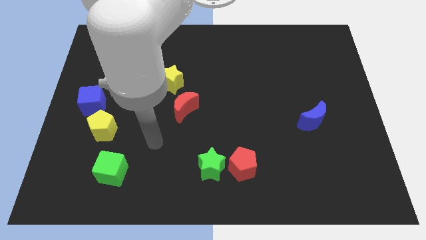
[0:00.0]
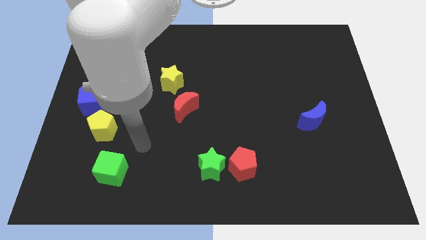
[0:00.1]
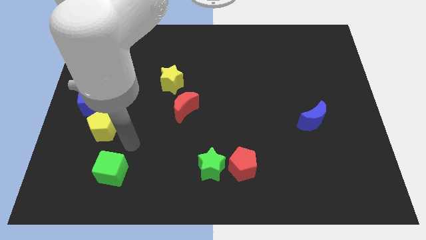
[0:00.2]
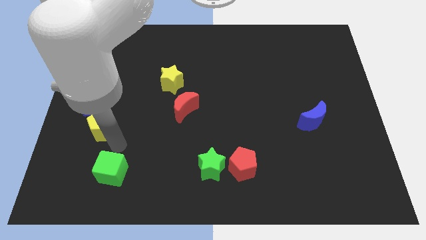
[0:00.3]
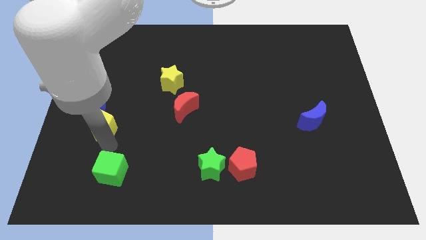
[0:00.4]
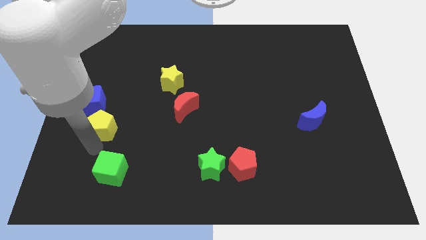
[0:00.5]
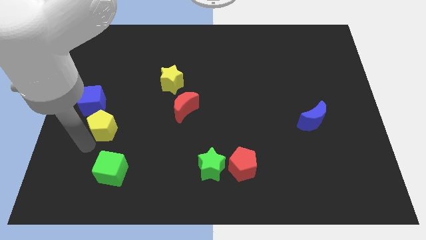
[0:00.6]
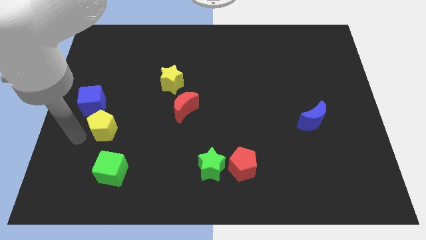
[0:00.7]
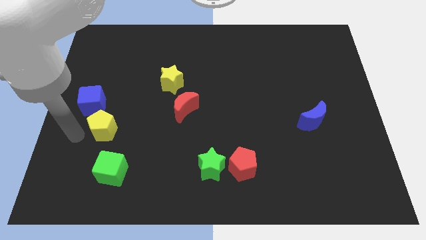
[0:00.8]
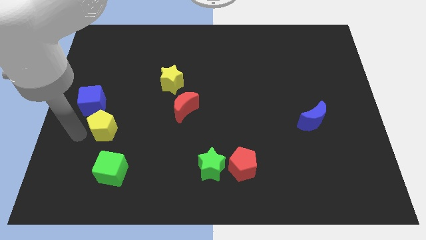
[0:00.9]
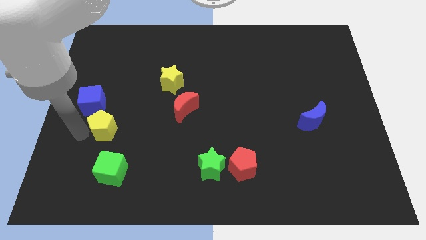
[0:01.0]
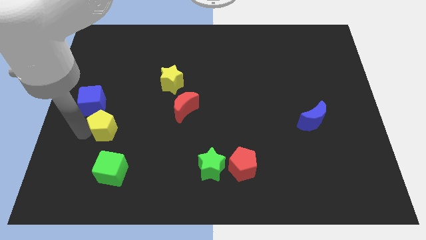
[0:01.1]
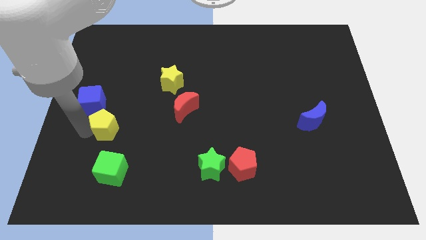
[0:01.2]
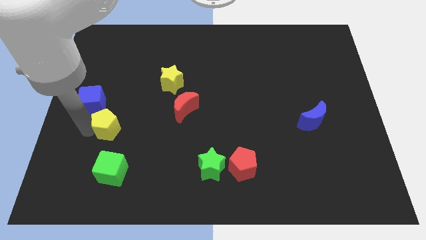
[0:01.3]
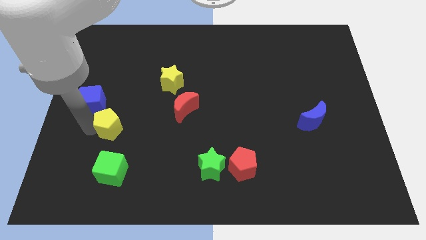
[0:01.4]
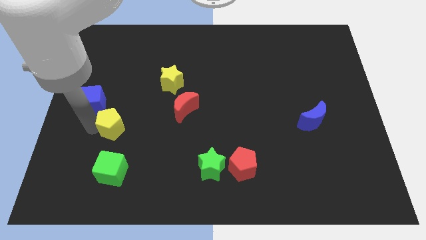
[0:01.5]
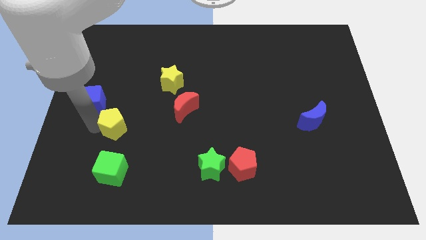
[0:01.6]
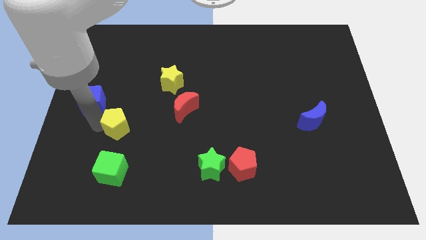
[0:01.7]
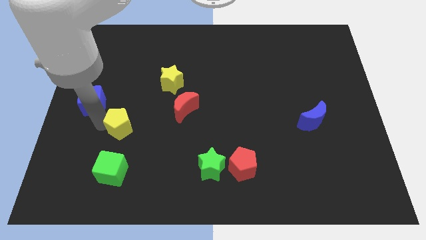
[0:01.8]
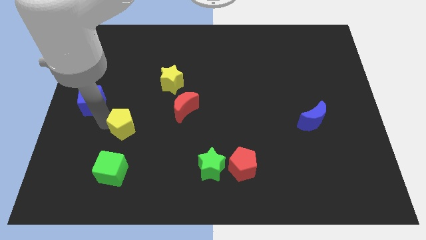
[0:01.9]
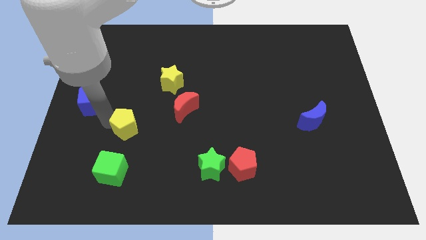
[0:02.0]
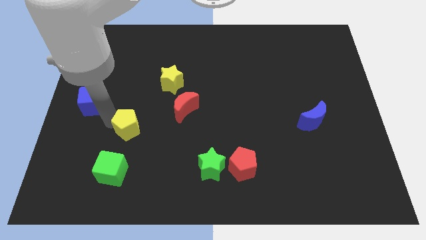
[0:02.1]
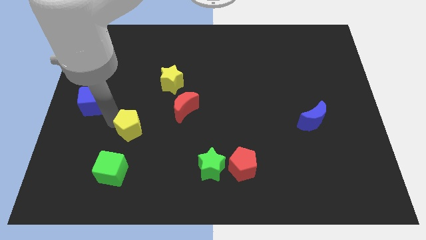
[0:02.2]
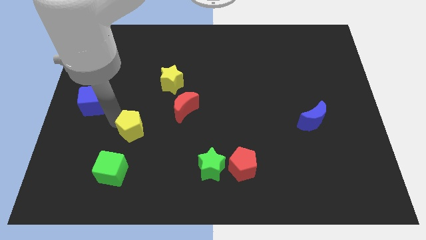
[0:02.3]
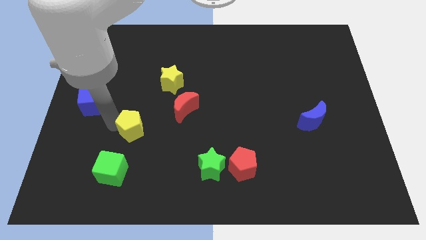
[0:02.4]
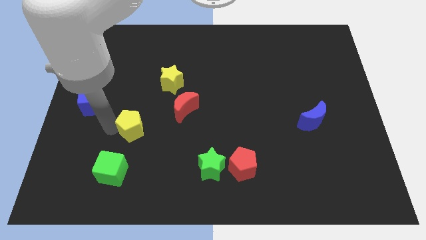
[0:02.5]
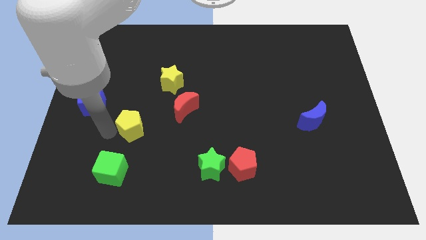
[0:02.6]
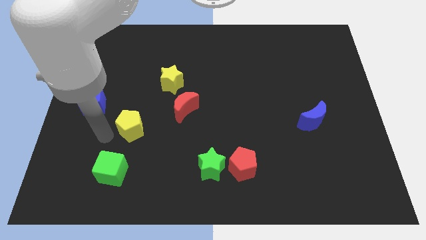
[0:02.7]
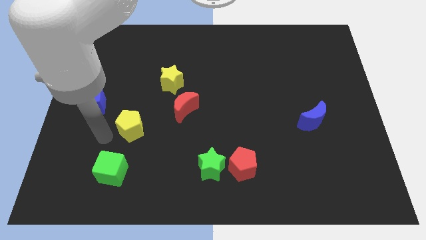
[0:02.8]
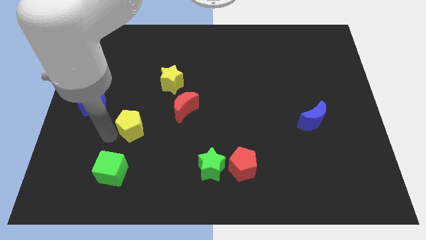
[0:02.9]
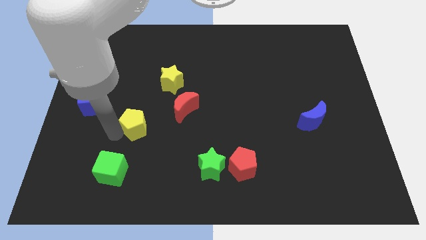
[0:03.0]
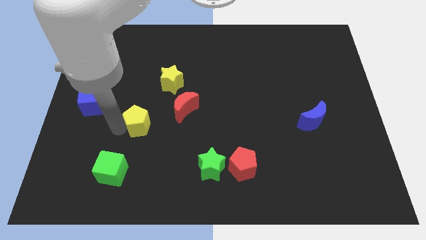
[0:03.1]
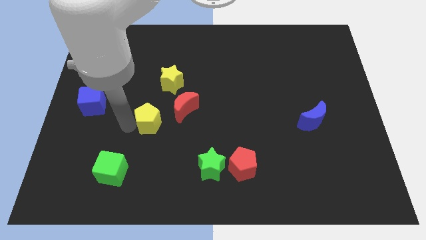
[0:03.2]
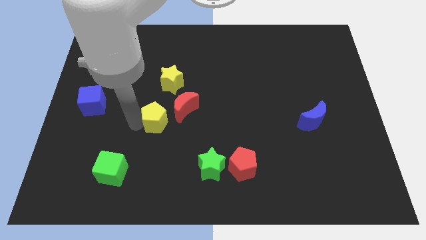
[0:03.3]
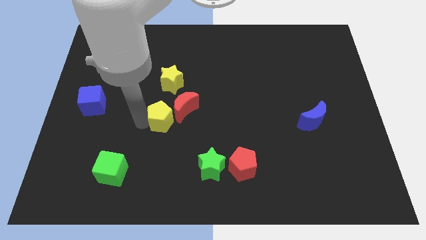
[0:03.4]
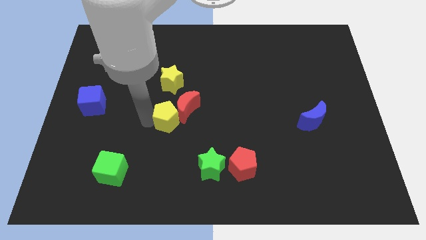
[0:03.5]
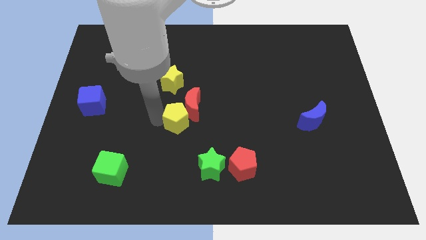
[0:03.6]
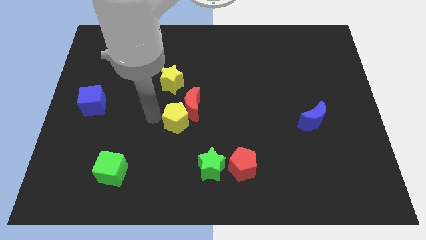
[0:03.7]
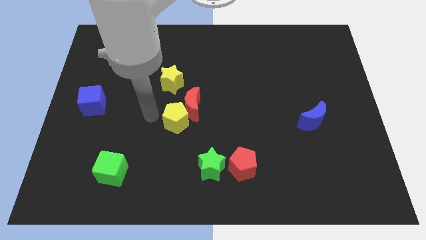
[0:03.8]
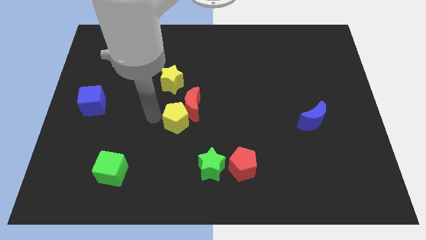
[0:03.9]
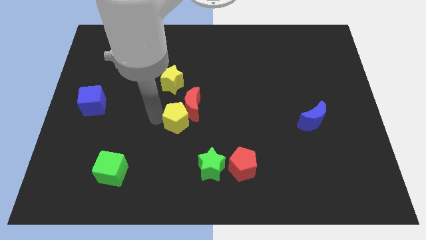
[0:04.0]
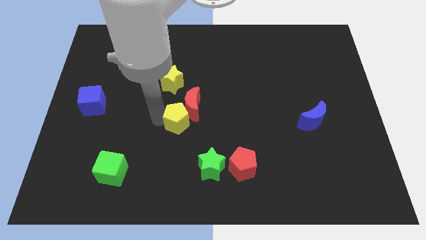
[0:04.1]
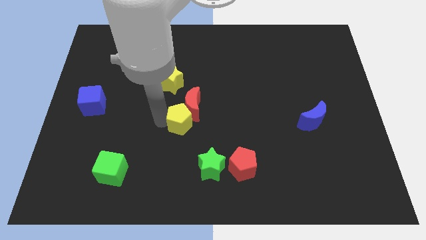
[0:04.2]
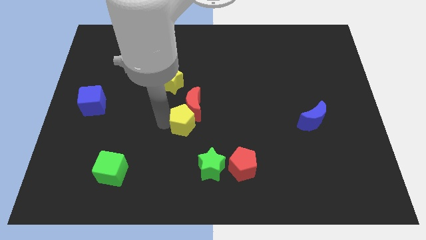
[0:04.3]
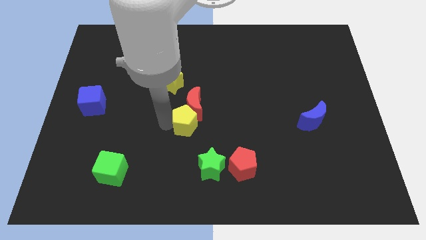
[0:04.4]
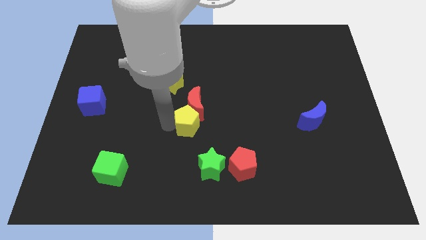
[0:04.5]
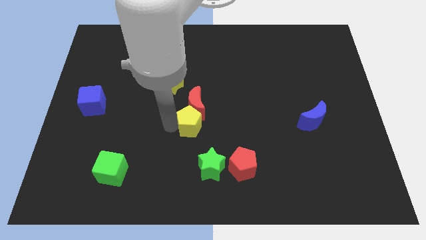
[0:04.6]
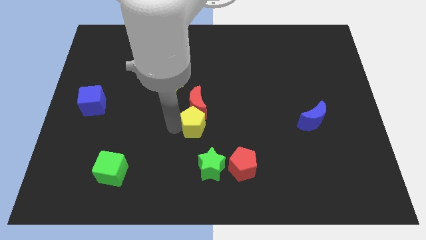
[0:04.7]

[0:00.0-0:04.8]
move the yellow pentagon to the right

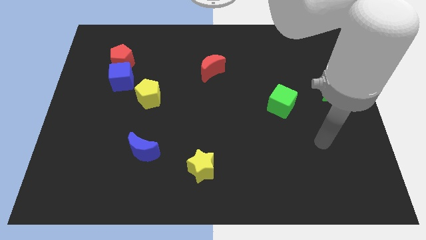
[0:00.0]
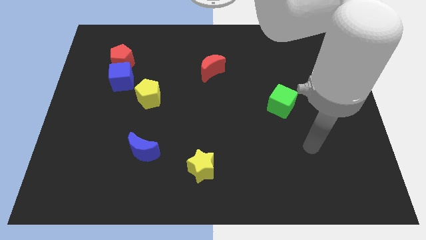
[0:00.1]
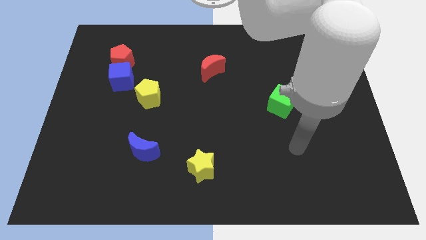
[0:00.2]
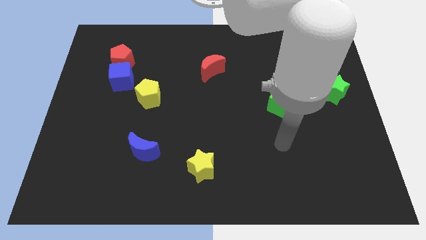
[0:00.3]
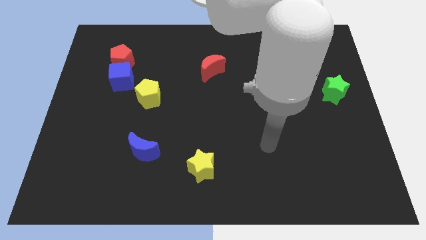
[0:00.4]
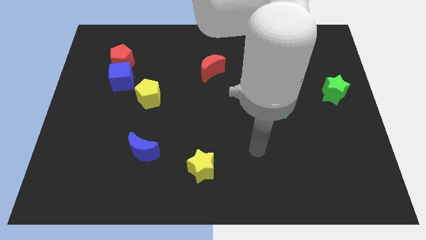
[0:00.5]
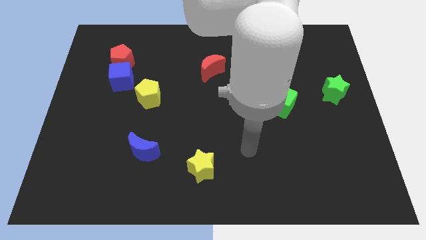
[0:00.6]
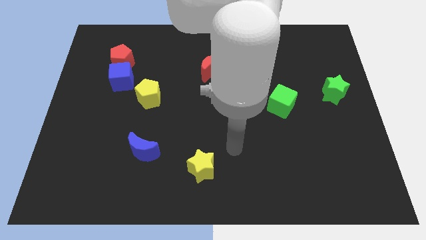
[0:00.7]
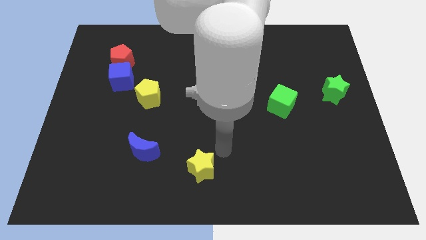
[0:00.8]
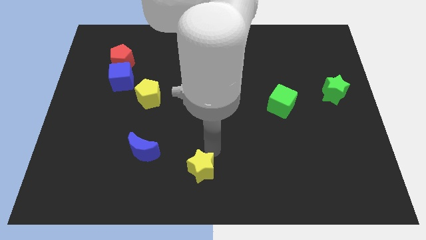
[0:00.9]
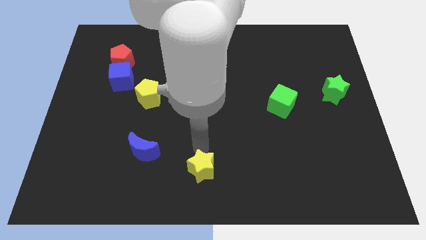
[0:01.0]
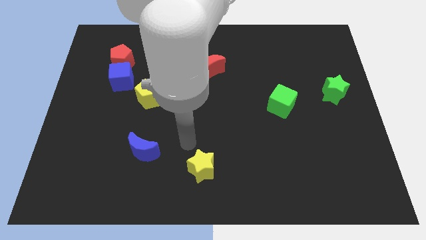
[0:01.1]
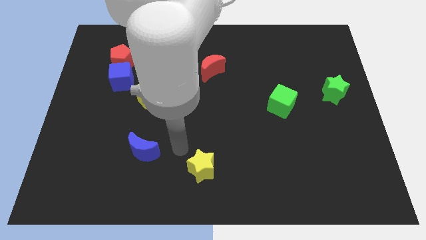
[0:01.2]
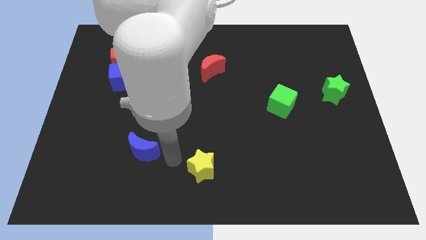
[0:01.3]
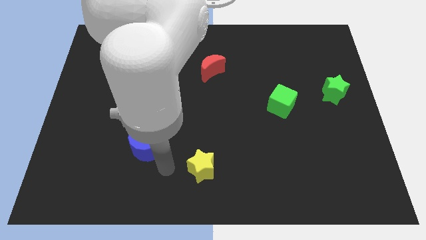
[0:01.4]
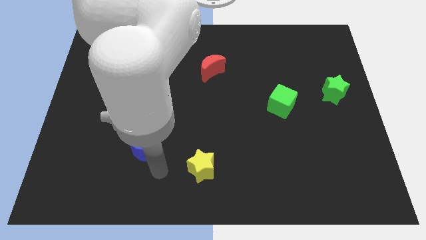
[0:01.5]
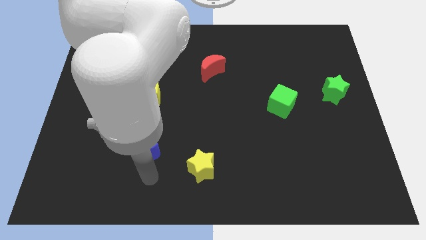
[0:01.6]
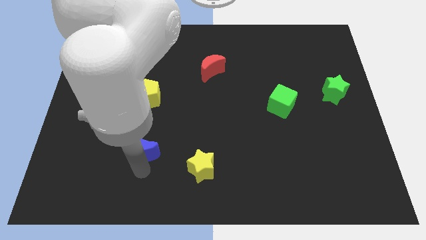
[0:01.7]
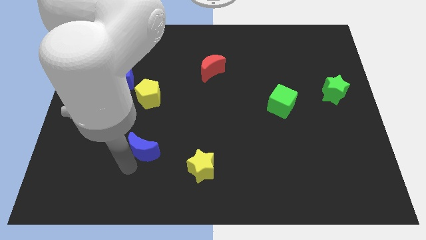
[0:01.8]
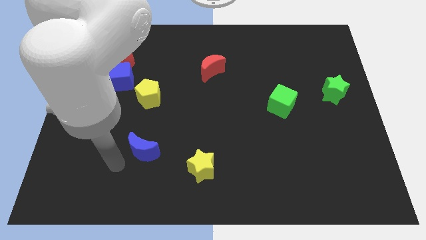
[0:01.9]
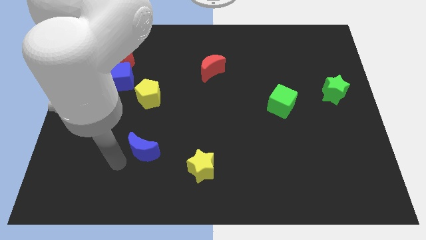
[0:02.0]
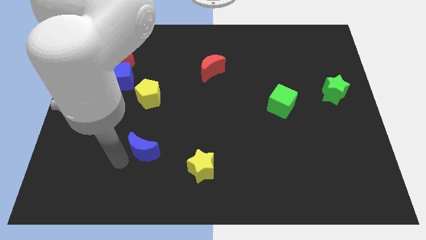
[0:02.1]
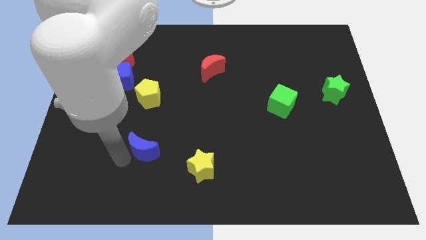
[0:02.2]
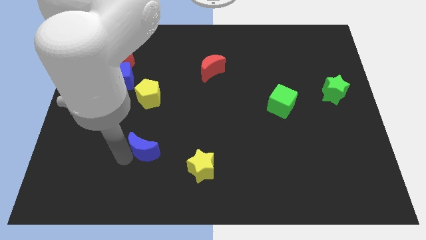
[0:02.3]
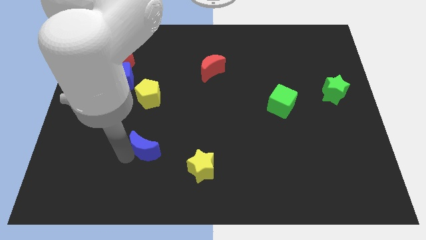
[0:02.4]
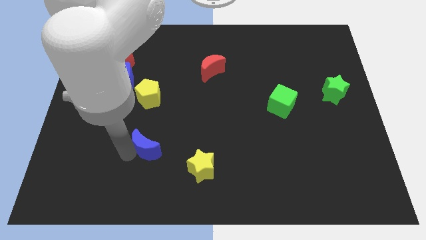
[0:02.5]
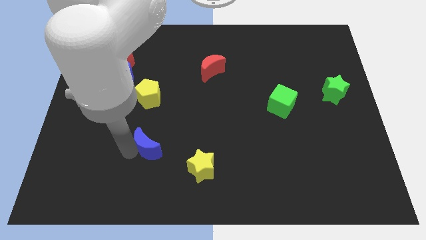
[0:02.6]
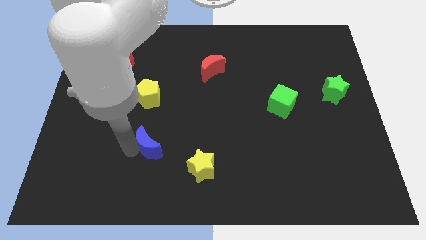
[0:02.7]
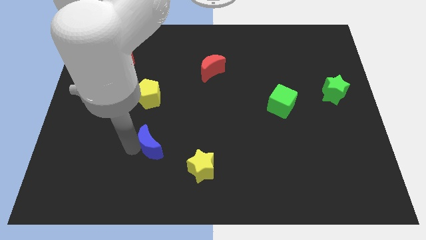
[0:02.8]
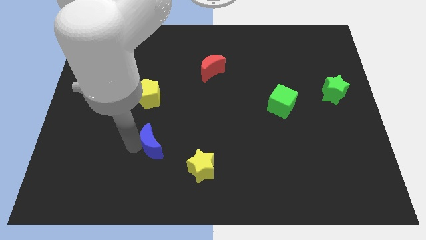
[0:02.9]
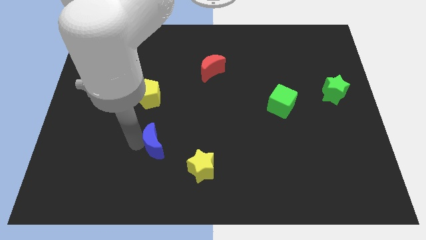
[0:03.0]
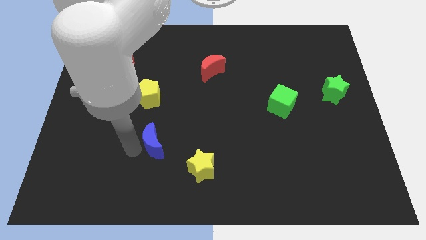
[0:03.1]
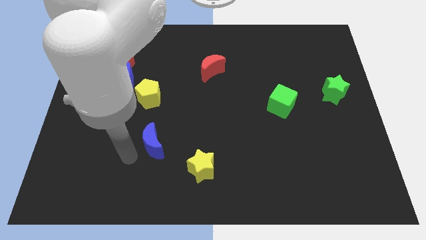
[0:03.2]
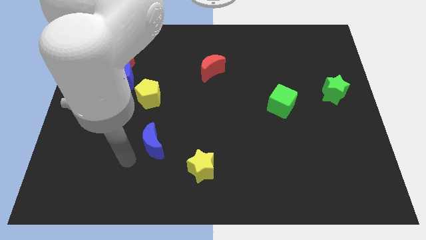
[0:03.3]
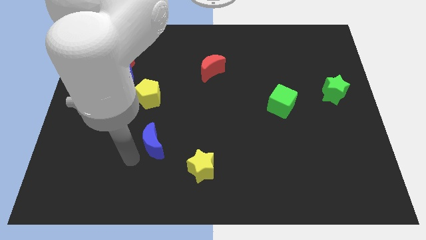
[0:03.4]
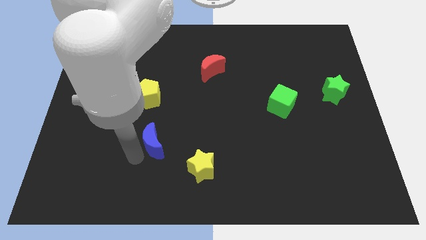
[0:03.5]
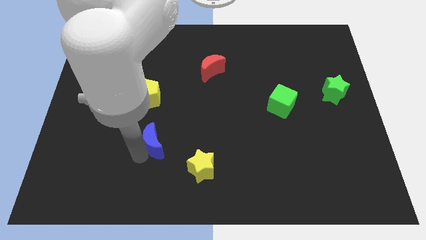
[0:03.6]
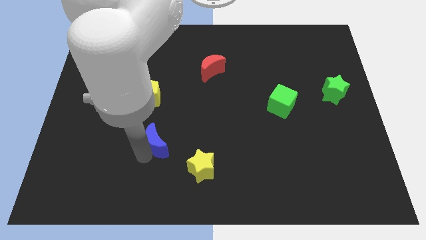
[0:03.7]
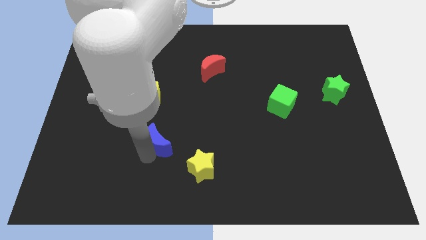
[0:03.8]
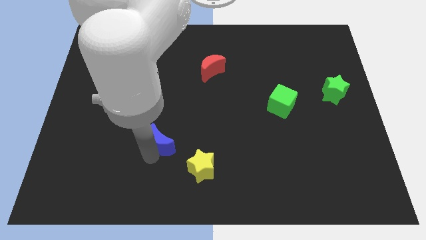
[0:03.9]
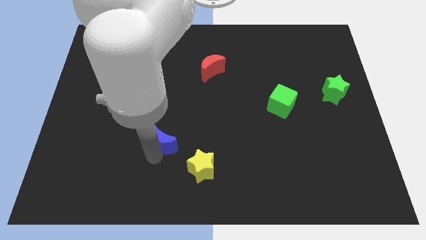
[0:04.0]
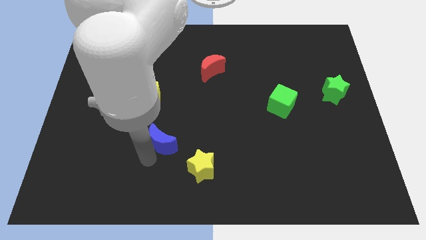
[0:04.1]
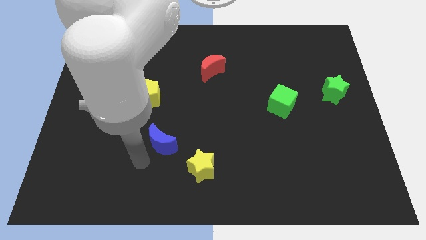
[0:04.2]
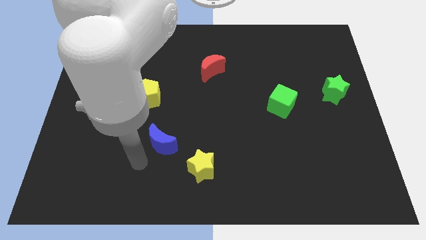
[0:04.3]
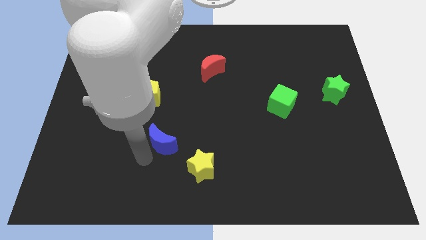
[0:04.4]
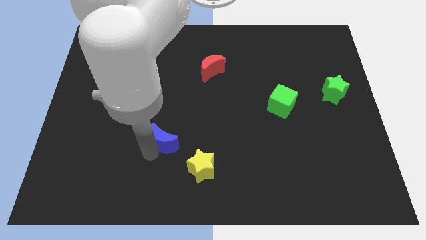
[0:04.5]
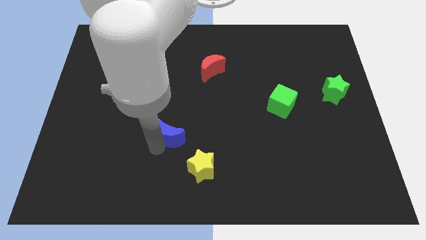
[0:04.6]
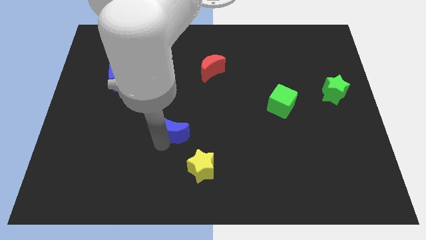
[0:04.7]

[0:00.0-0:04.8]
slide the blue moon slightly upwards and to the right diagonally
